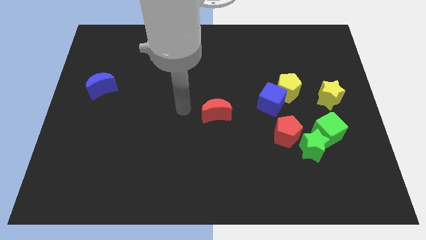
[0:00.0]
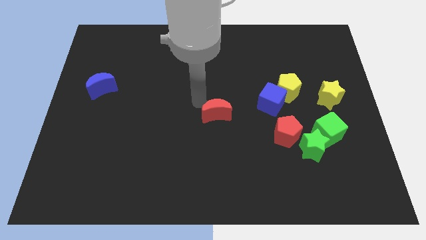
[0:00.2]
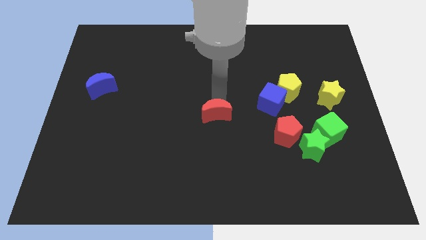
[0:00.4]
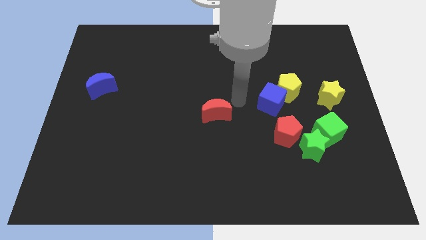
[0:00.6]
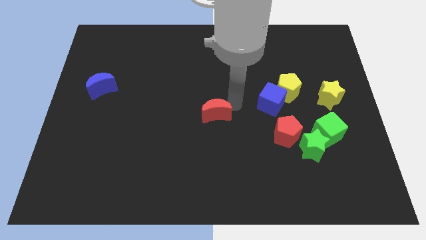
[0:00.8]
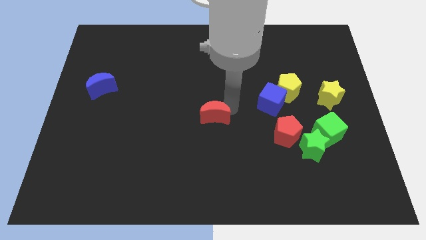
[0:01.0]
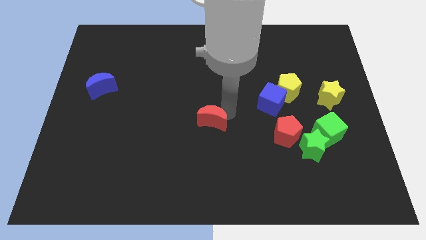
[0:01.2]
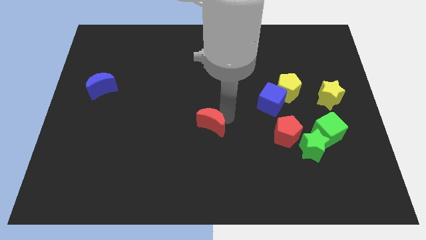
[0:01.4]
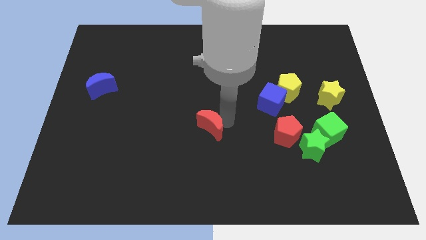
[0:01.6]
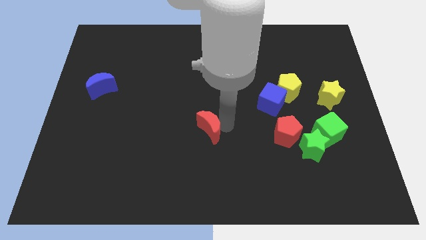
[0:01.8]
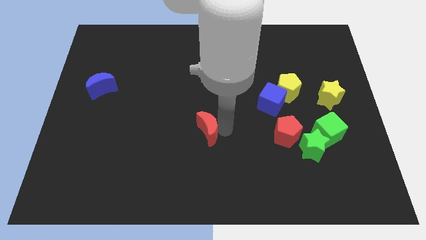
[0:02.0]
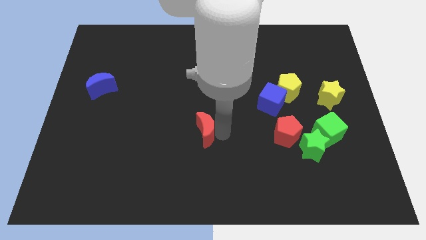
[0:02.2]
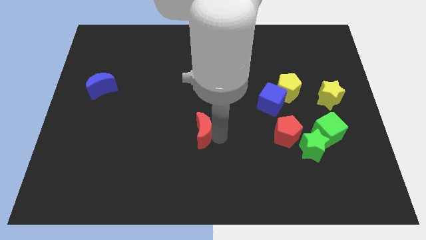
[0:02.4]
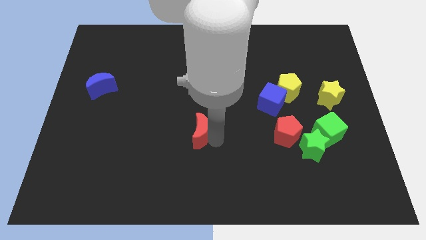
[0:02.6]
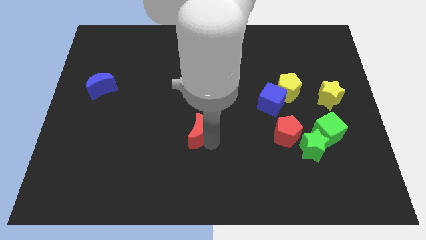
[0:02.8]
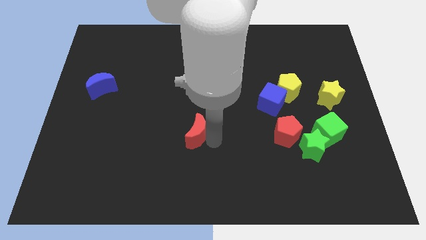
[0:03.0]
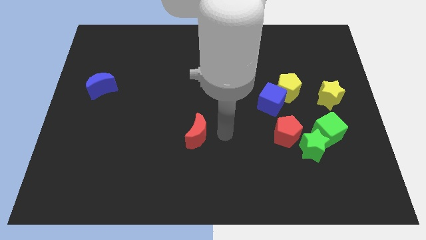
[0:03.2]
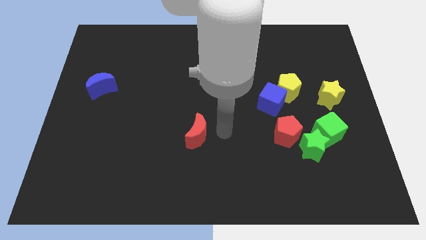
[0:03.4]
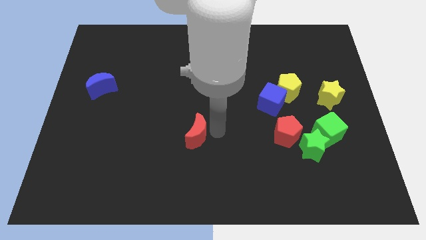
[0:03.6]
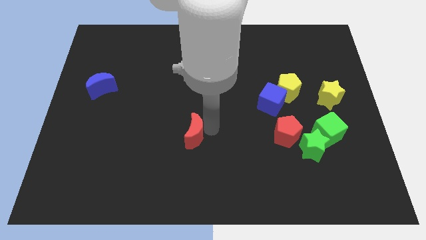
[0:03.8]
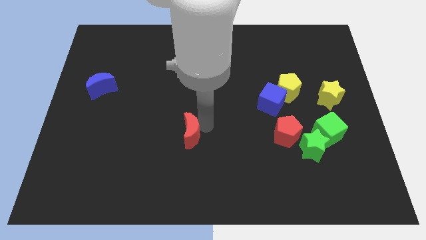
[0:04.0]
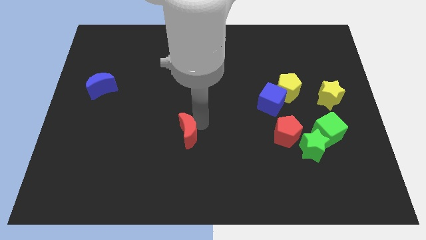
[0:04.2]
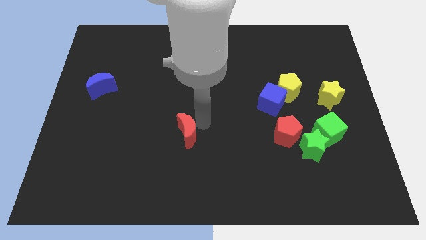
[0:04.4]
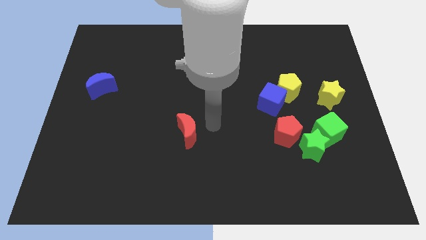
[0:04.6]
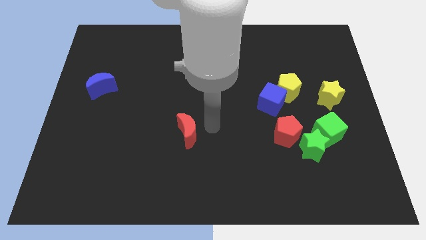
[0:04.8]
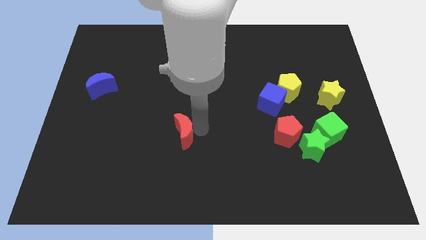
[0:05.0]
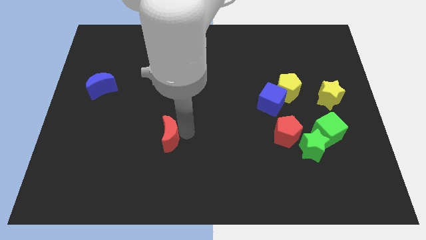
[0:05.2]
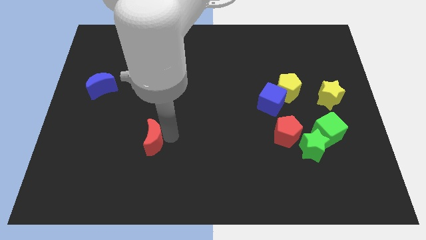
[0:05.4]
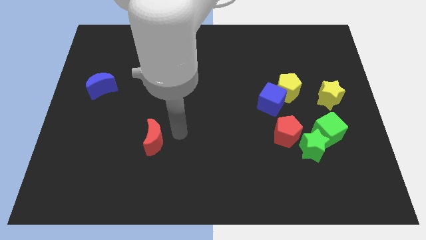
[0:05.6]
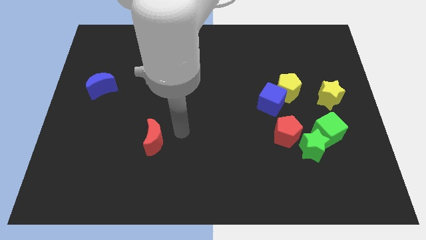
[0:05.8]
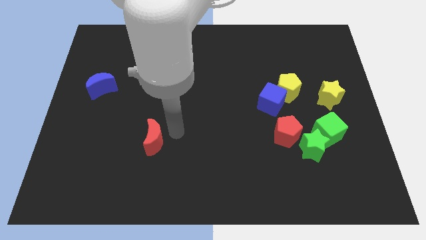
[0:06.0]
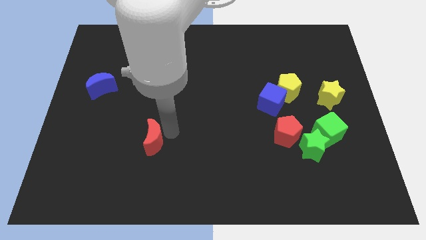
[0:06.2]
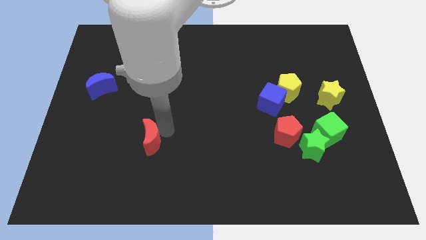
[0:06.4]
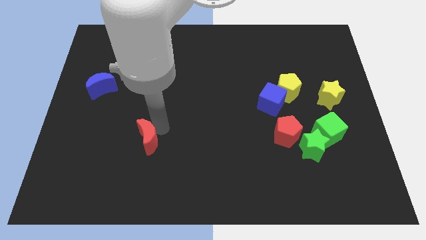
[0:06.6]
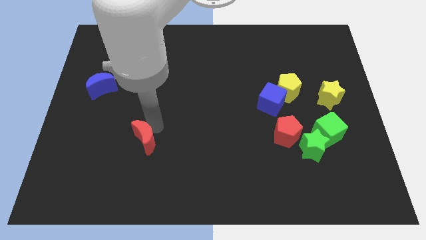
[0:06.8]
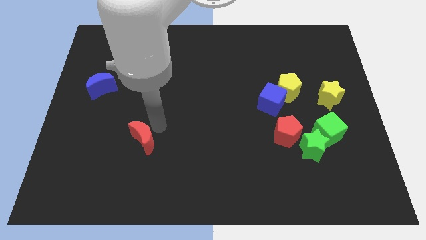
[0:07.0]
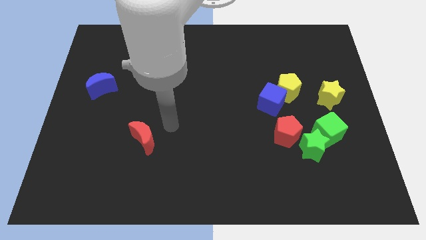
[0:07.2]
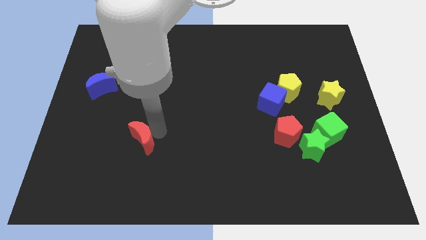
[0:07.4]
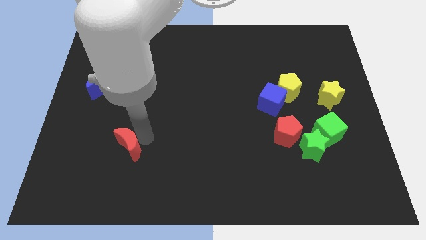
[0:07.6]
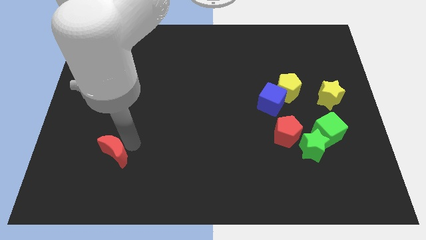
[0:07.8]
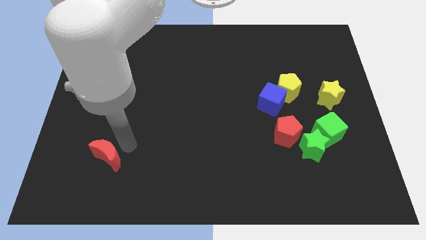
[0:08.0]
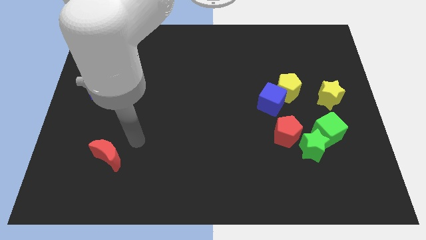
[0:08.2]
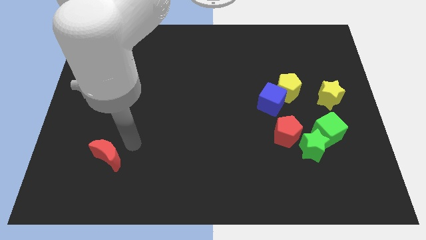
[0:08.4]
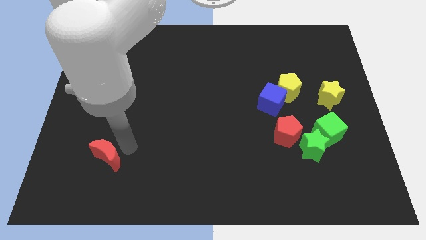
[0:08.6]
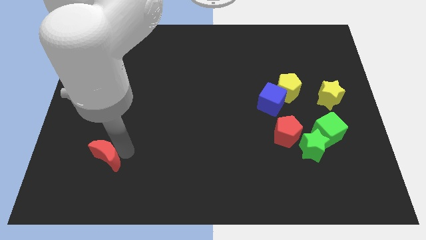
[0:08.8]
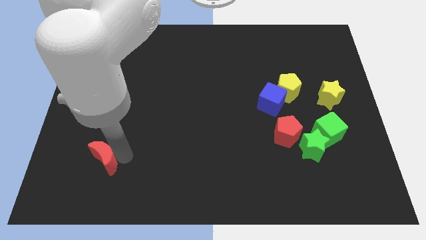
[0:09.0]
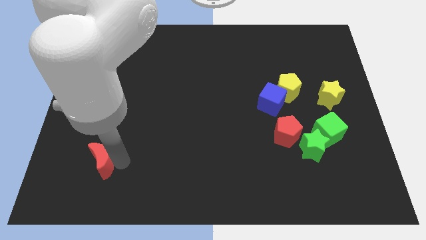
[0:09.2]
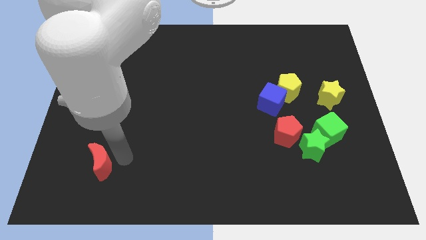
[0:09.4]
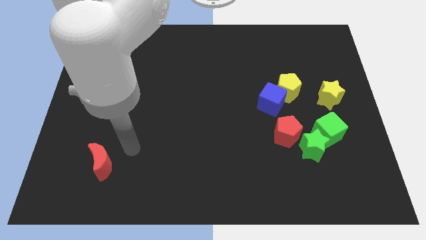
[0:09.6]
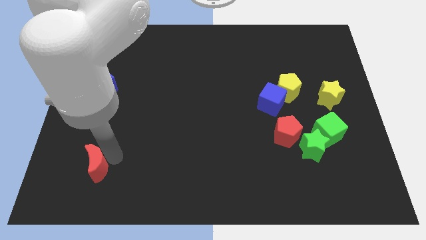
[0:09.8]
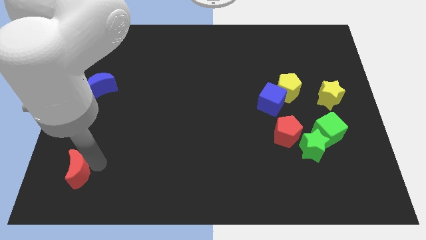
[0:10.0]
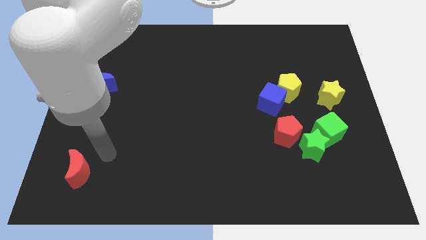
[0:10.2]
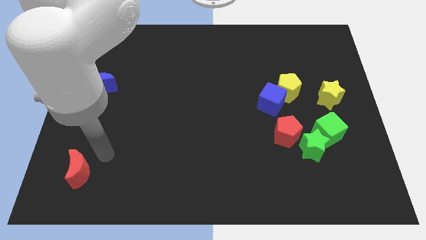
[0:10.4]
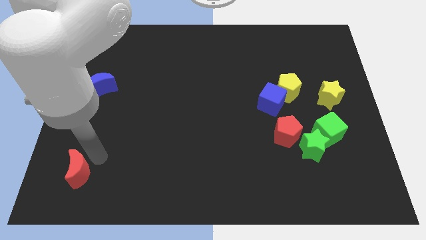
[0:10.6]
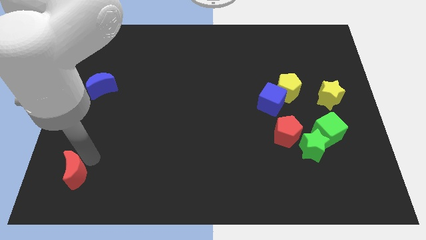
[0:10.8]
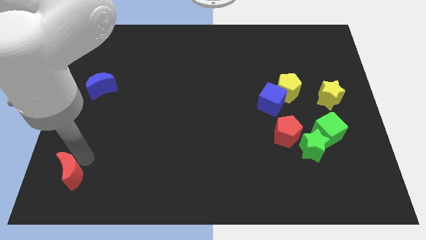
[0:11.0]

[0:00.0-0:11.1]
slide the red moon to the bottom left

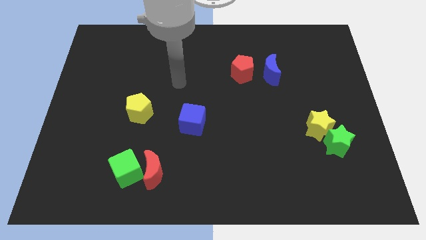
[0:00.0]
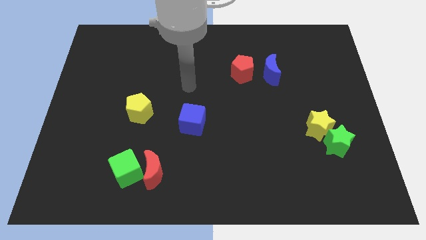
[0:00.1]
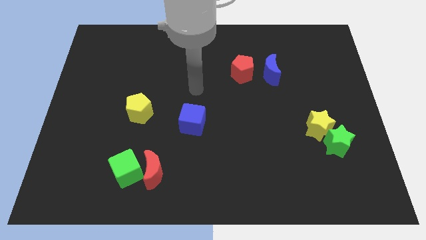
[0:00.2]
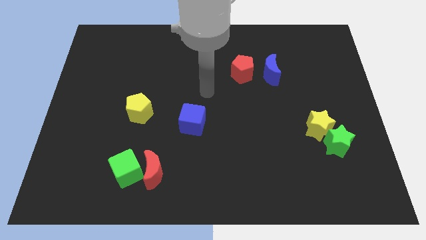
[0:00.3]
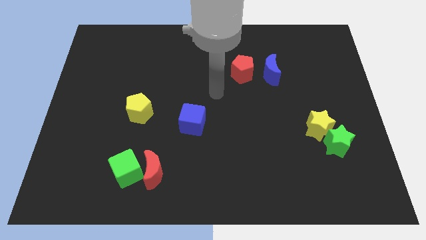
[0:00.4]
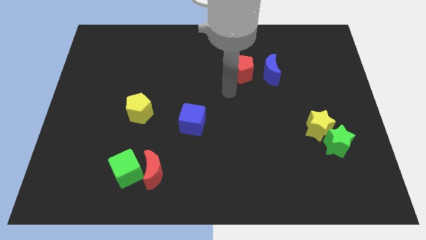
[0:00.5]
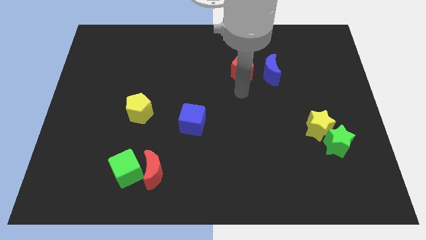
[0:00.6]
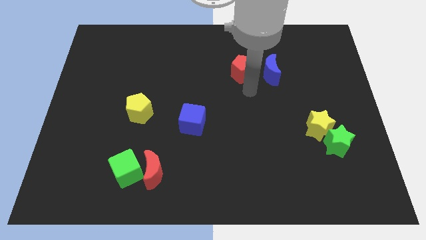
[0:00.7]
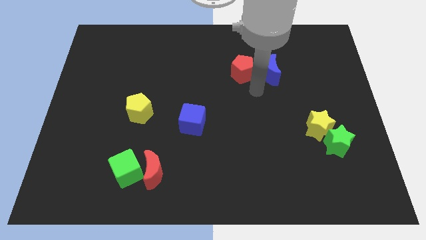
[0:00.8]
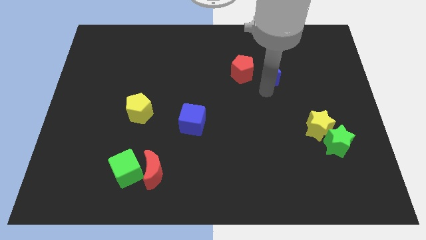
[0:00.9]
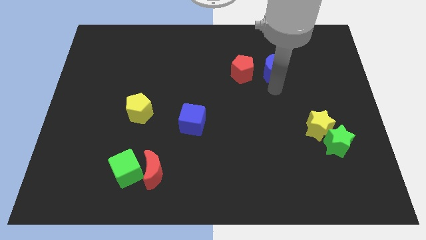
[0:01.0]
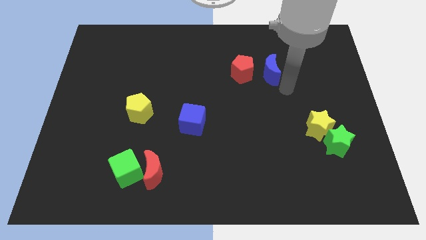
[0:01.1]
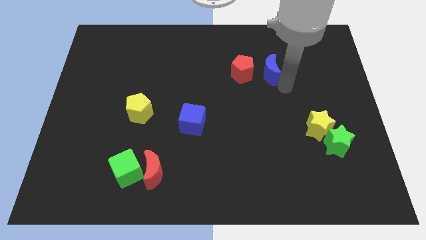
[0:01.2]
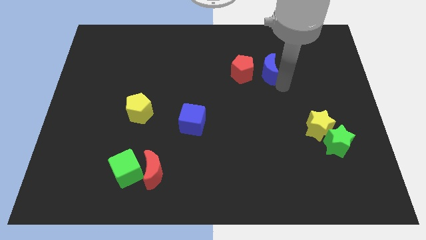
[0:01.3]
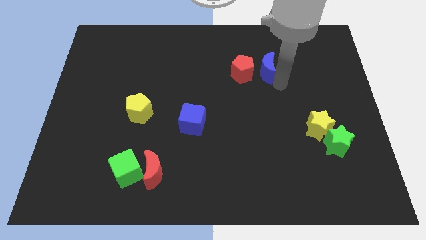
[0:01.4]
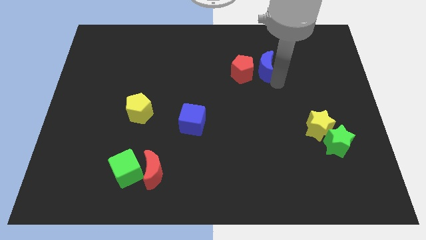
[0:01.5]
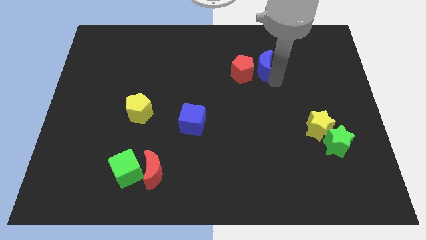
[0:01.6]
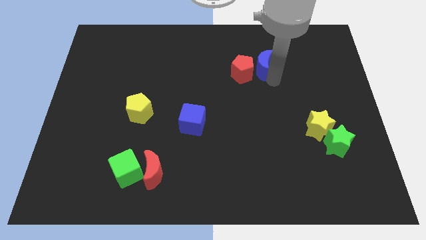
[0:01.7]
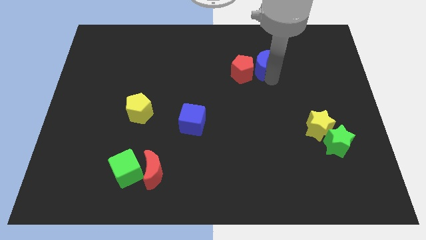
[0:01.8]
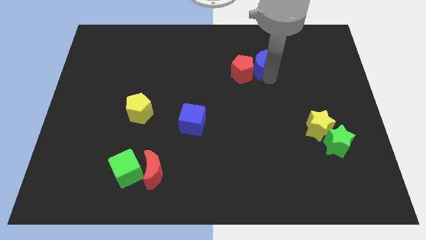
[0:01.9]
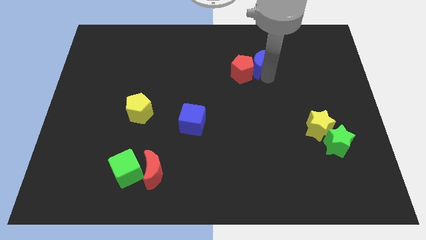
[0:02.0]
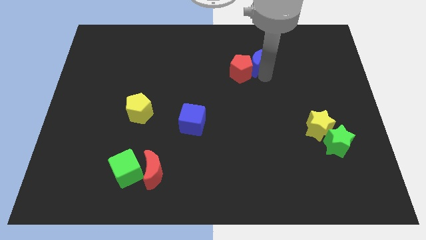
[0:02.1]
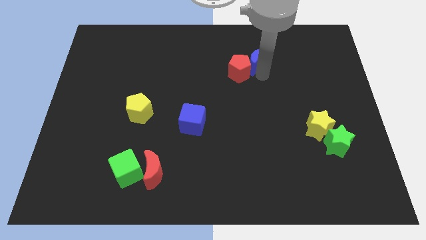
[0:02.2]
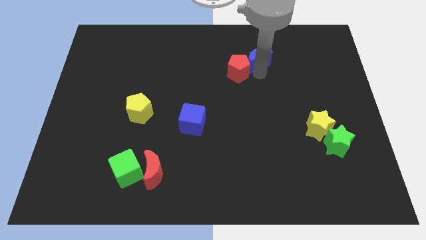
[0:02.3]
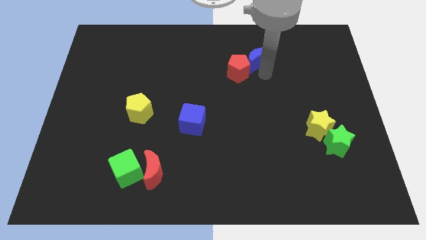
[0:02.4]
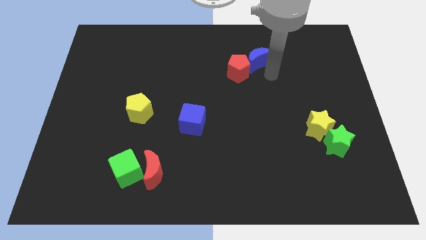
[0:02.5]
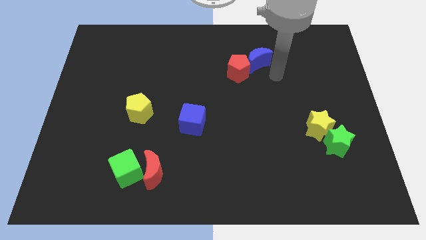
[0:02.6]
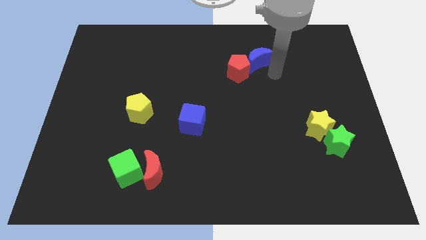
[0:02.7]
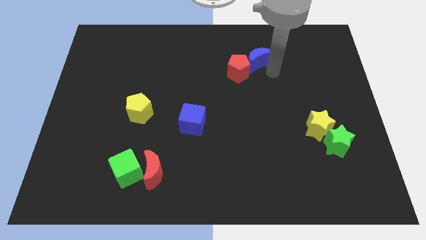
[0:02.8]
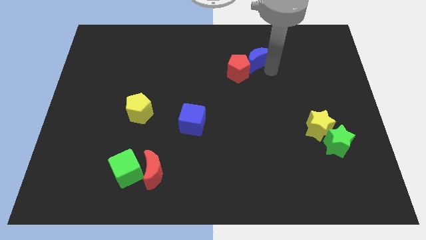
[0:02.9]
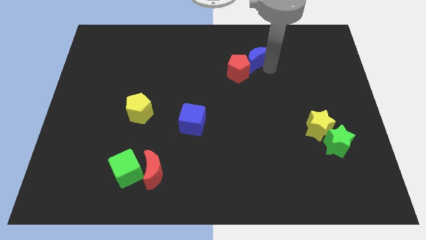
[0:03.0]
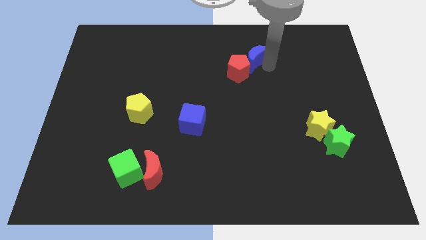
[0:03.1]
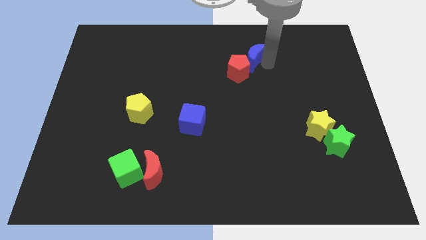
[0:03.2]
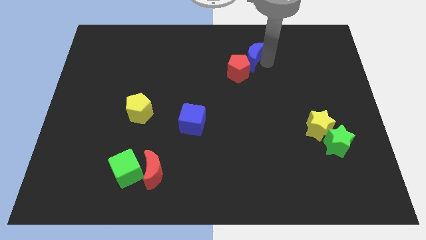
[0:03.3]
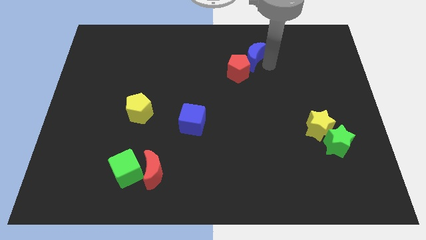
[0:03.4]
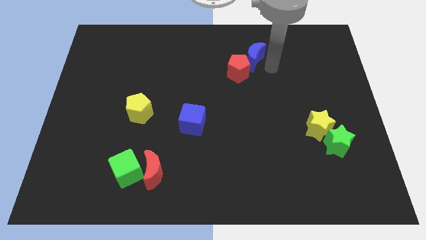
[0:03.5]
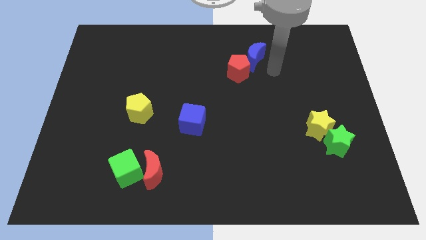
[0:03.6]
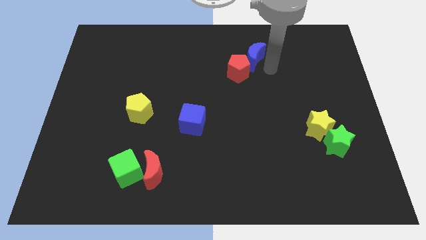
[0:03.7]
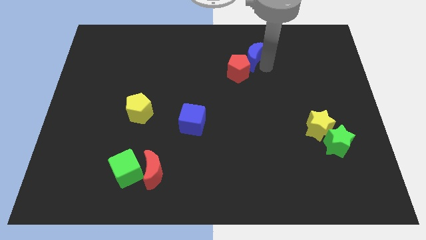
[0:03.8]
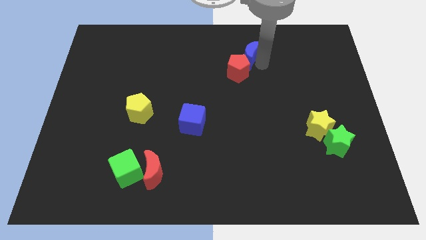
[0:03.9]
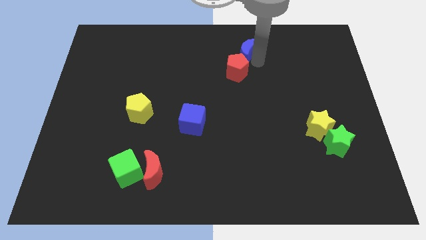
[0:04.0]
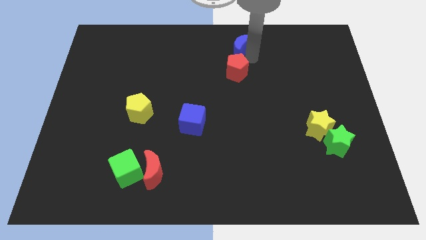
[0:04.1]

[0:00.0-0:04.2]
push the blue moon to the top side
